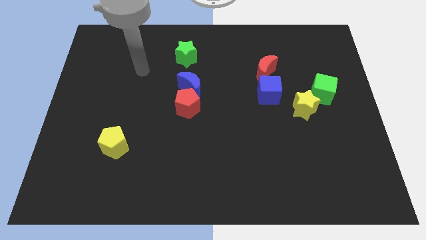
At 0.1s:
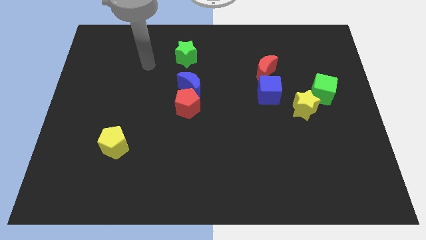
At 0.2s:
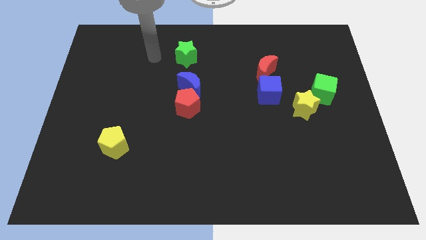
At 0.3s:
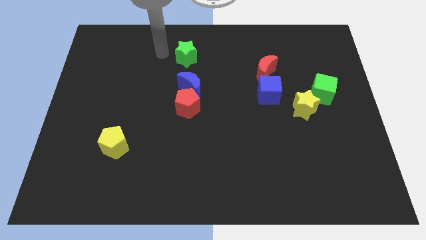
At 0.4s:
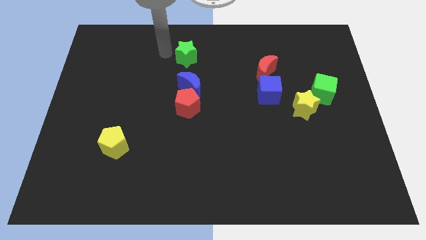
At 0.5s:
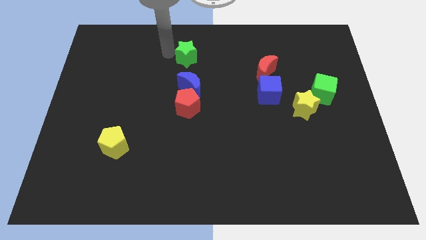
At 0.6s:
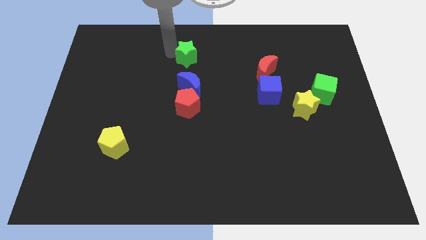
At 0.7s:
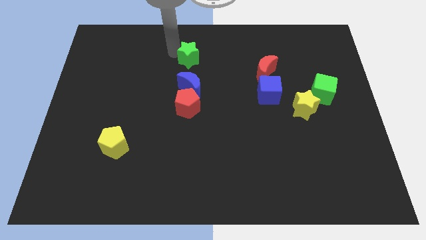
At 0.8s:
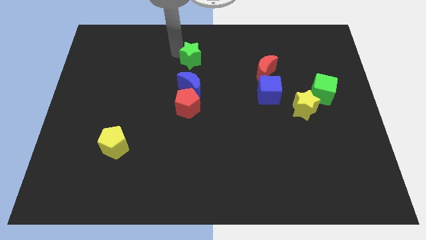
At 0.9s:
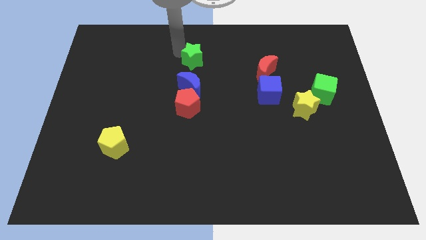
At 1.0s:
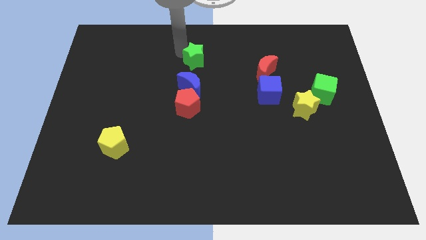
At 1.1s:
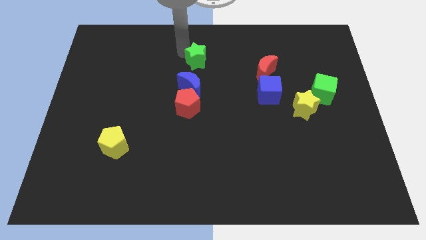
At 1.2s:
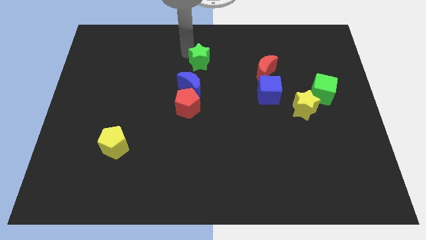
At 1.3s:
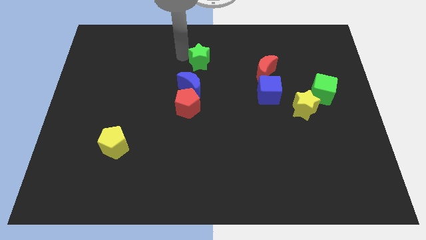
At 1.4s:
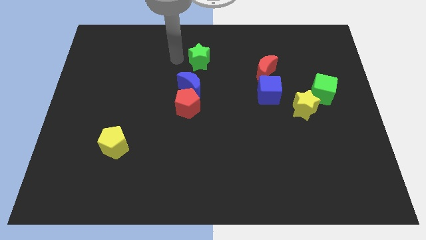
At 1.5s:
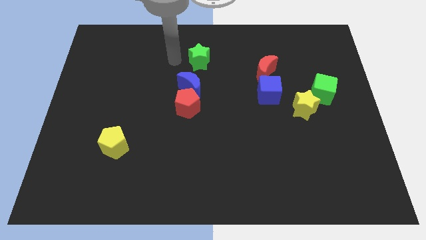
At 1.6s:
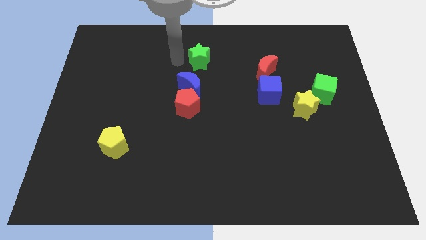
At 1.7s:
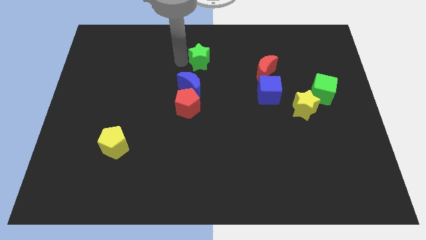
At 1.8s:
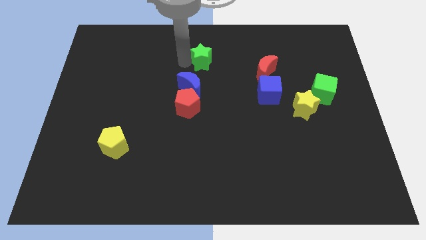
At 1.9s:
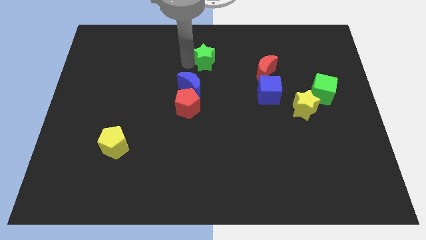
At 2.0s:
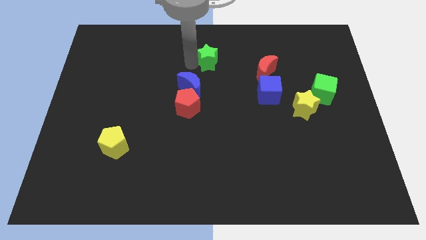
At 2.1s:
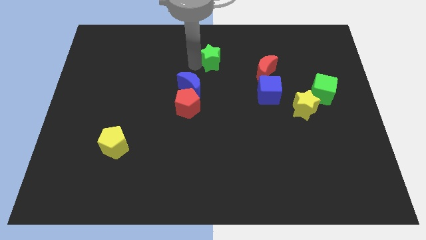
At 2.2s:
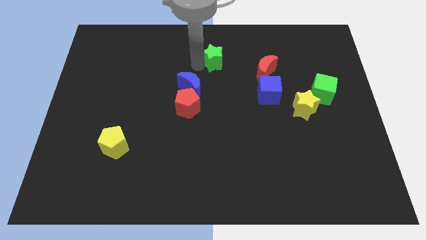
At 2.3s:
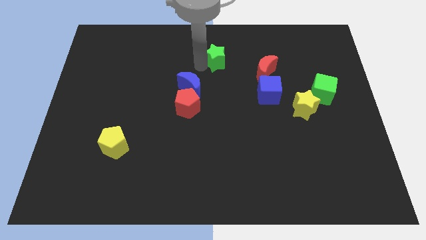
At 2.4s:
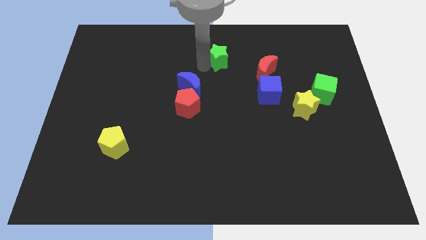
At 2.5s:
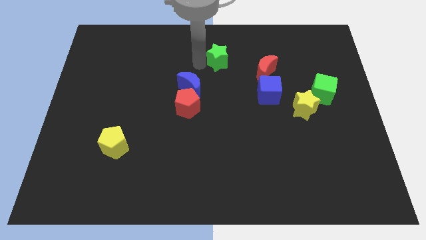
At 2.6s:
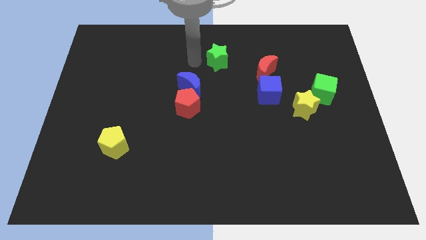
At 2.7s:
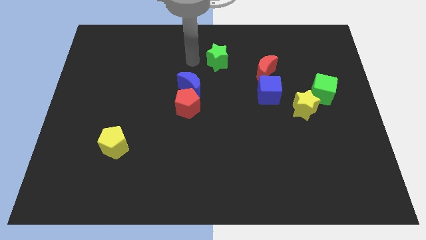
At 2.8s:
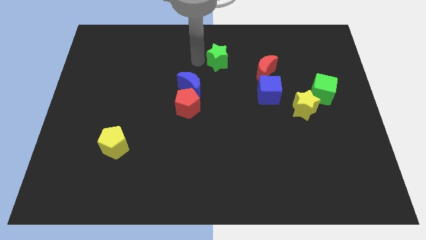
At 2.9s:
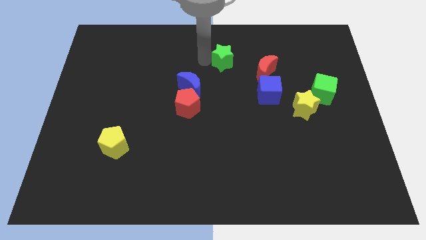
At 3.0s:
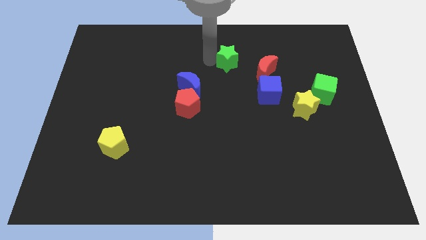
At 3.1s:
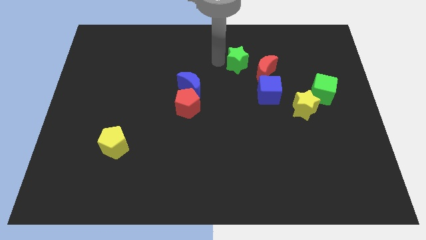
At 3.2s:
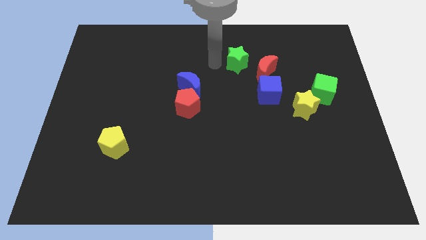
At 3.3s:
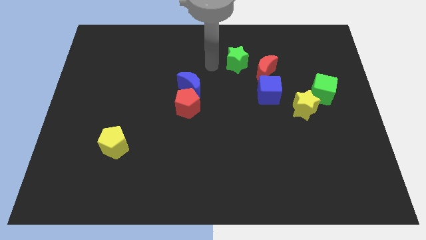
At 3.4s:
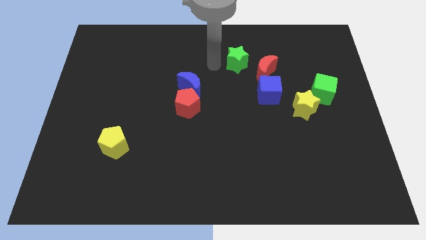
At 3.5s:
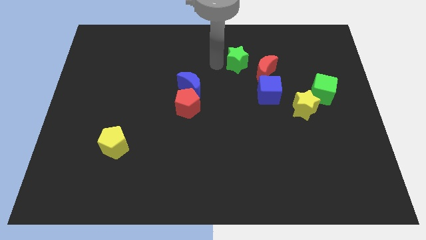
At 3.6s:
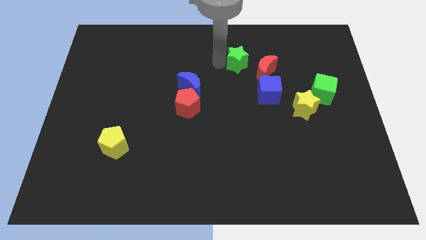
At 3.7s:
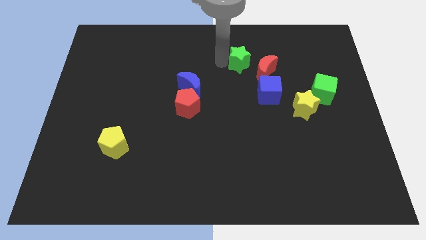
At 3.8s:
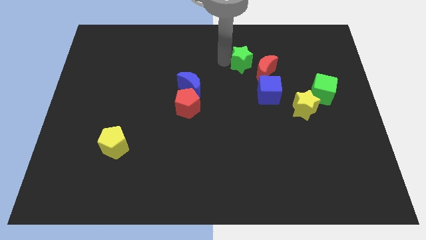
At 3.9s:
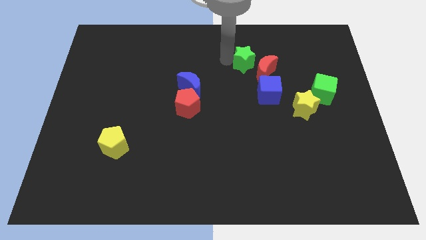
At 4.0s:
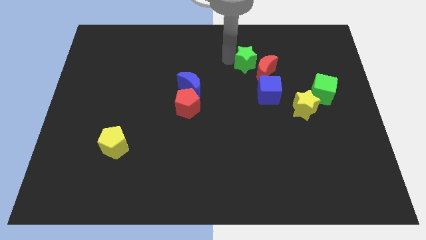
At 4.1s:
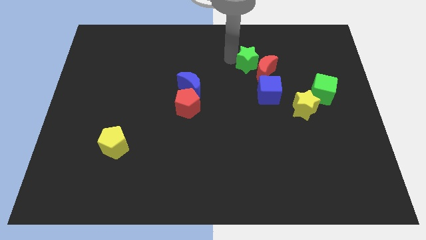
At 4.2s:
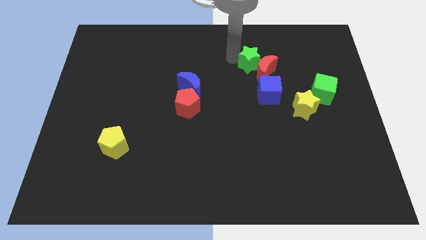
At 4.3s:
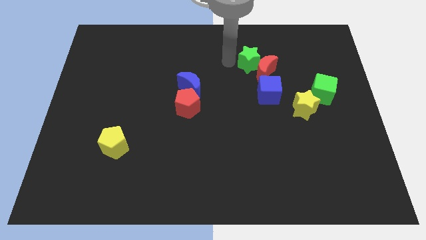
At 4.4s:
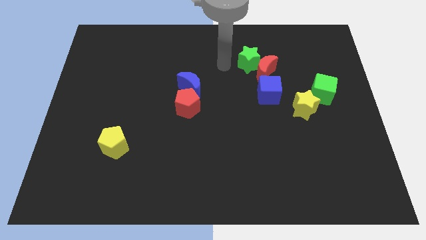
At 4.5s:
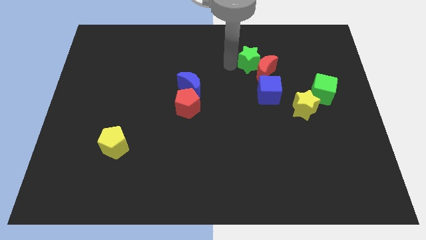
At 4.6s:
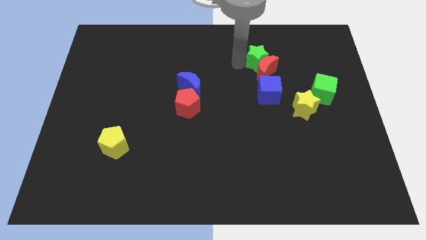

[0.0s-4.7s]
push the green star diagonally up and to the right of the red moon

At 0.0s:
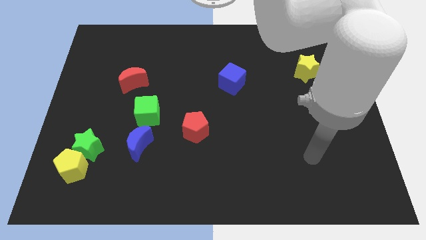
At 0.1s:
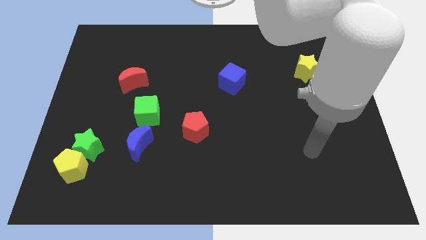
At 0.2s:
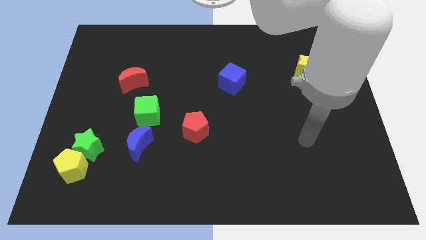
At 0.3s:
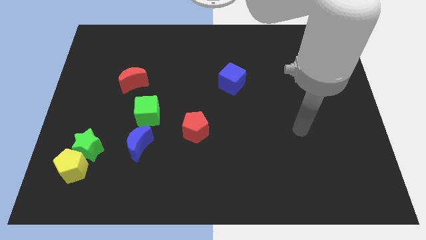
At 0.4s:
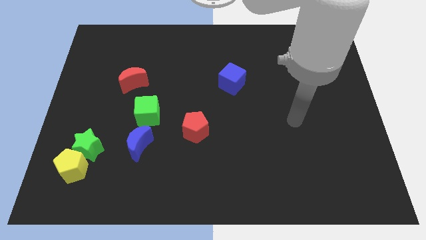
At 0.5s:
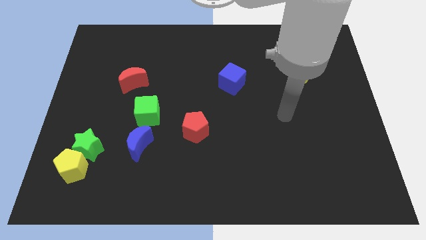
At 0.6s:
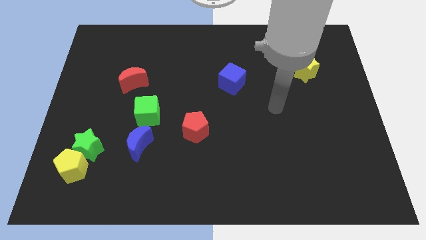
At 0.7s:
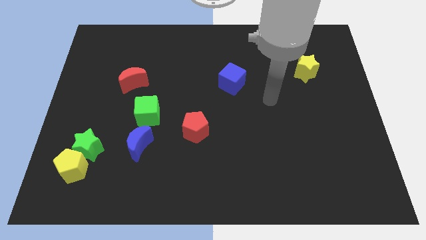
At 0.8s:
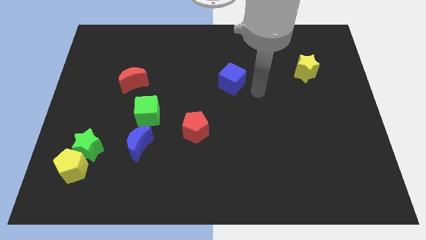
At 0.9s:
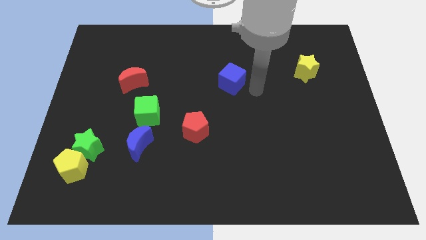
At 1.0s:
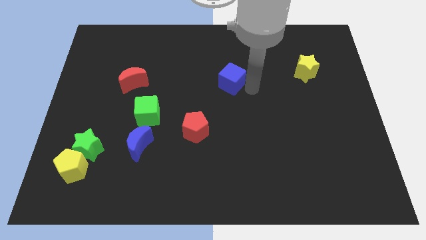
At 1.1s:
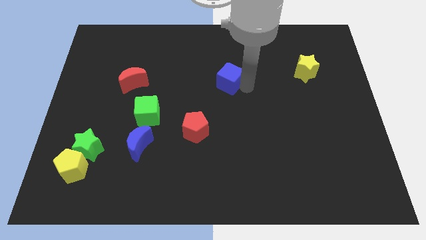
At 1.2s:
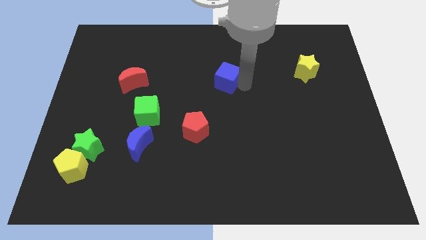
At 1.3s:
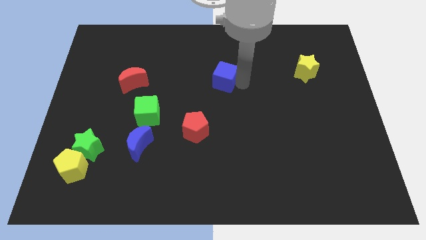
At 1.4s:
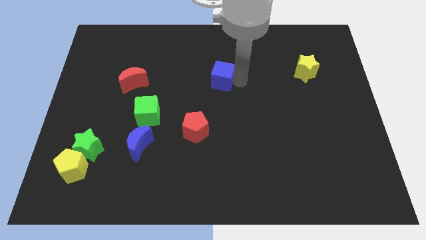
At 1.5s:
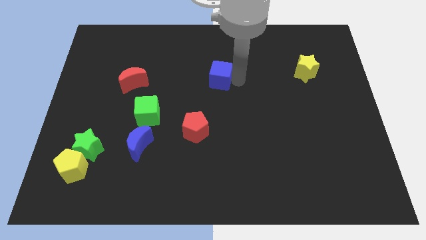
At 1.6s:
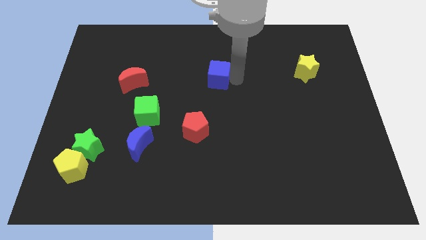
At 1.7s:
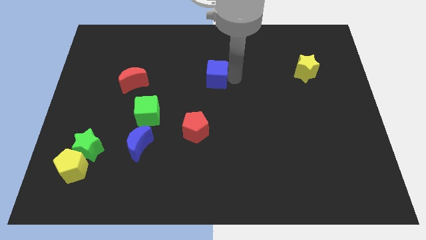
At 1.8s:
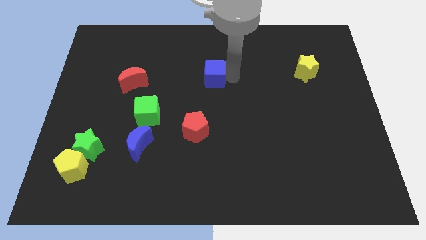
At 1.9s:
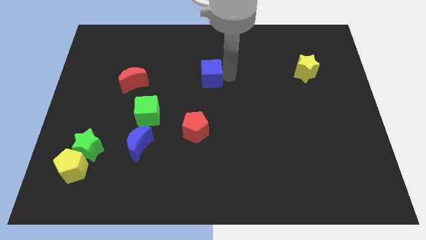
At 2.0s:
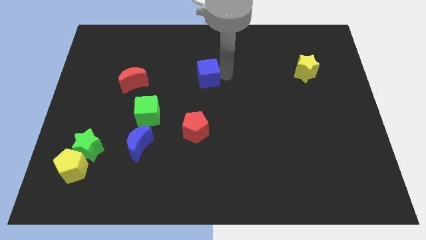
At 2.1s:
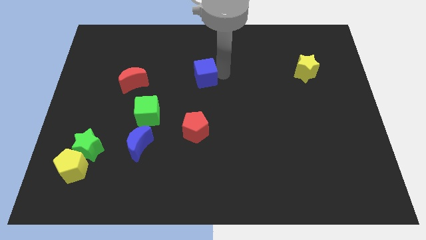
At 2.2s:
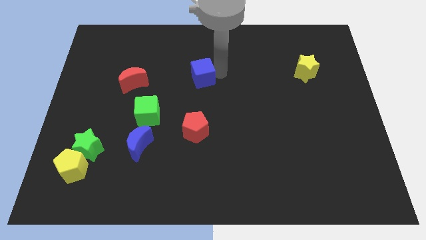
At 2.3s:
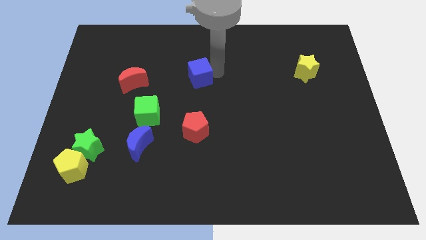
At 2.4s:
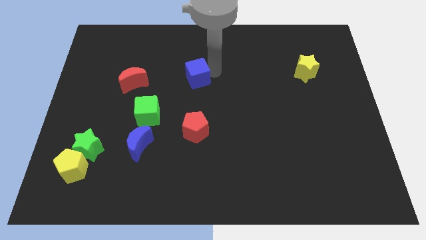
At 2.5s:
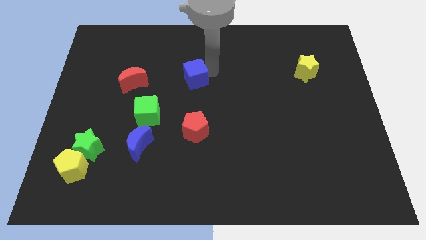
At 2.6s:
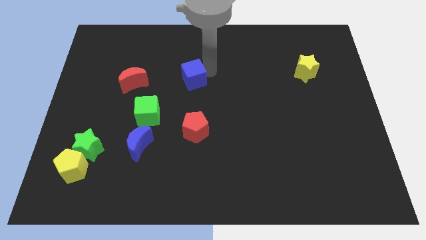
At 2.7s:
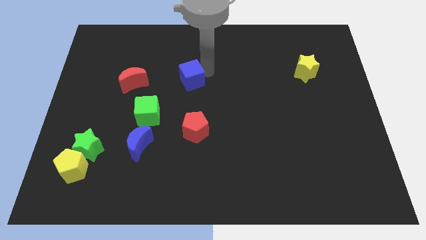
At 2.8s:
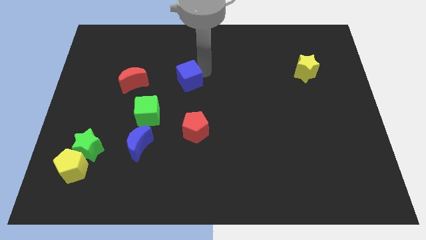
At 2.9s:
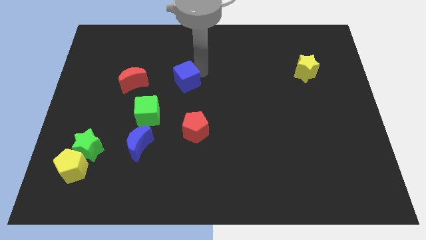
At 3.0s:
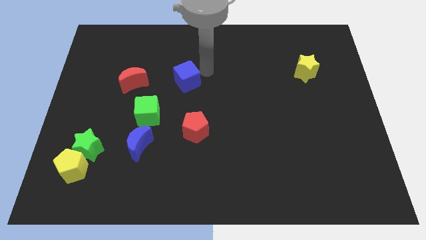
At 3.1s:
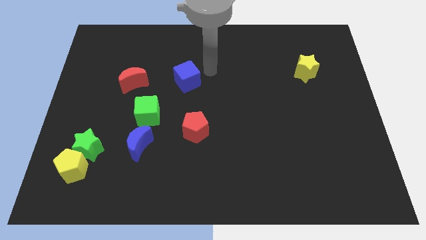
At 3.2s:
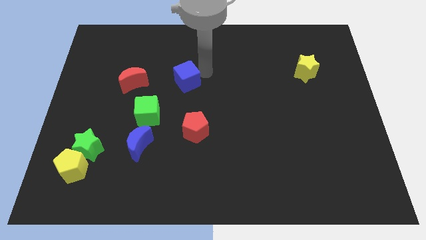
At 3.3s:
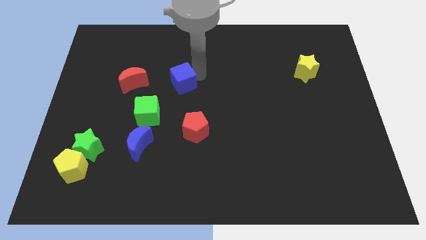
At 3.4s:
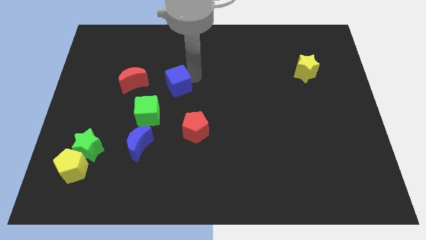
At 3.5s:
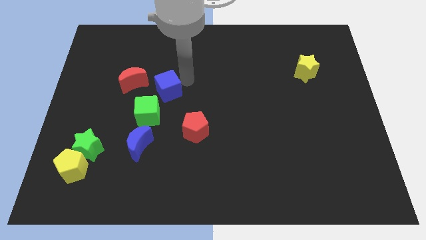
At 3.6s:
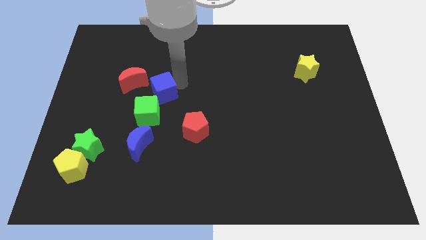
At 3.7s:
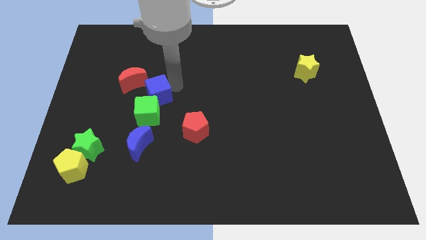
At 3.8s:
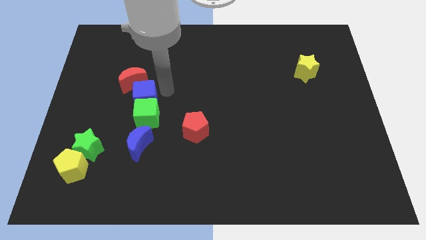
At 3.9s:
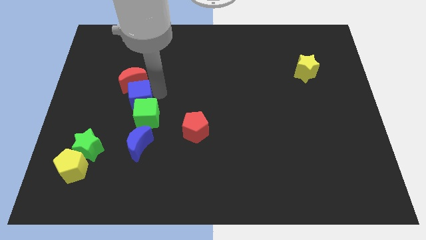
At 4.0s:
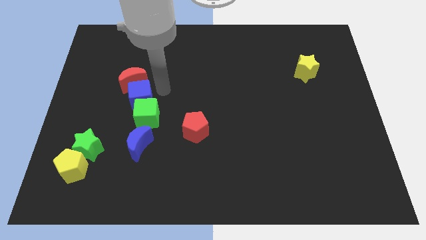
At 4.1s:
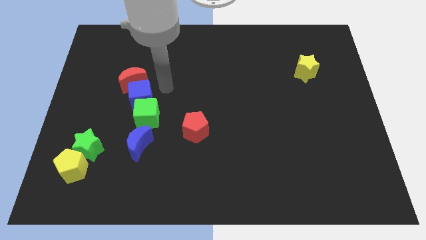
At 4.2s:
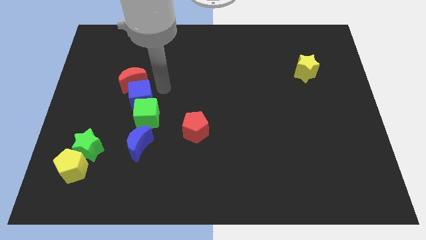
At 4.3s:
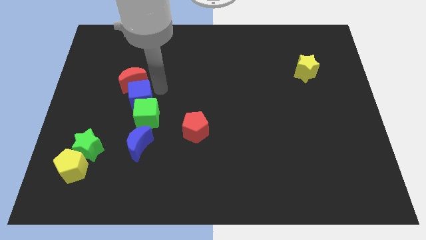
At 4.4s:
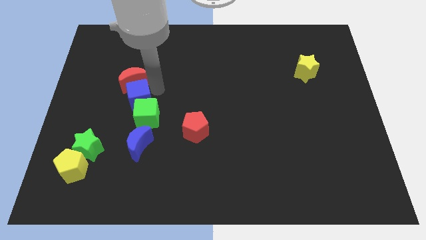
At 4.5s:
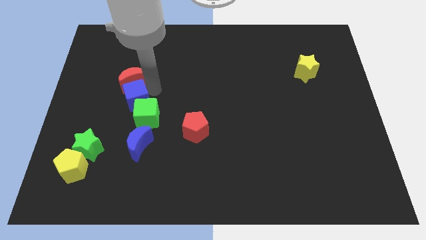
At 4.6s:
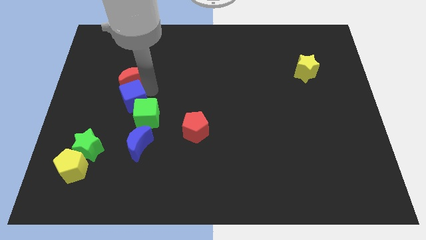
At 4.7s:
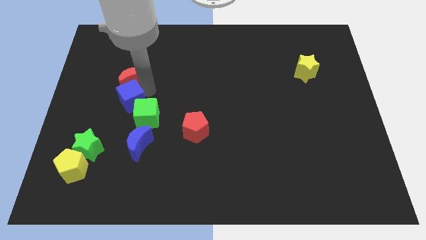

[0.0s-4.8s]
slide the blue cube to the left of the green cube
